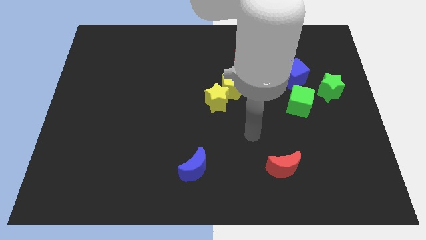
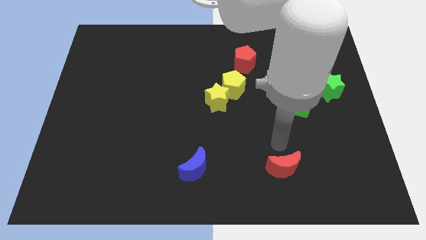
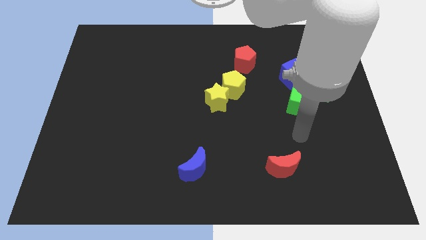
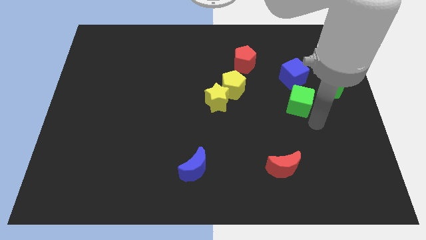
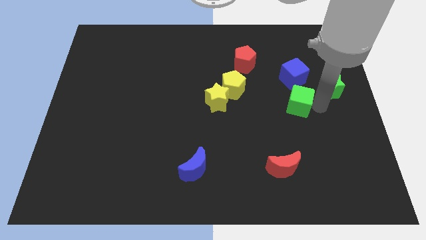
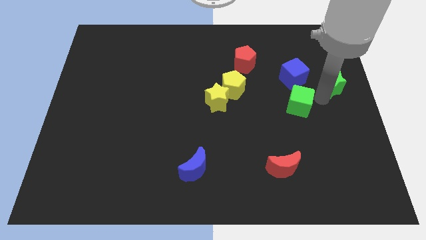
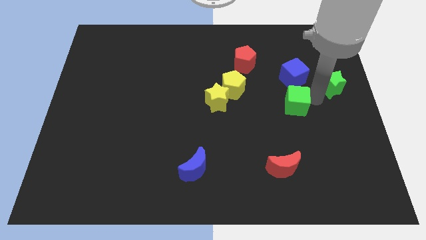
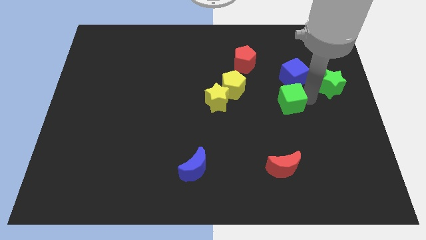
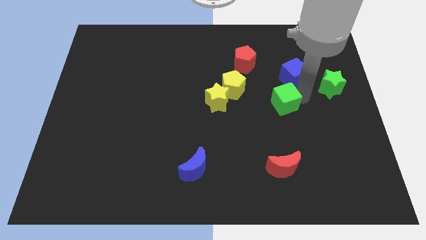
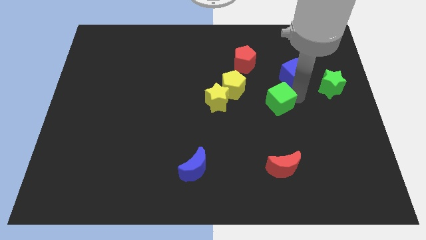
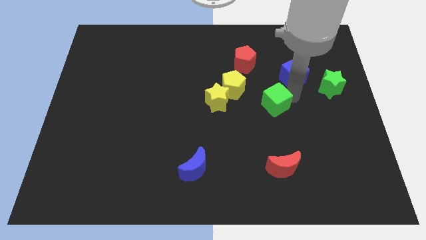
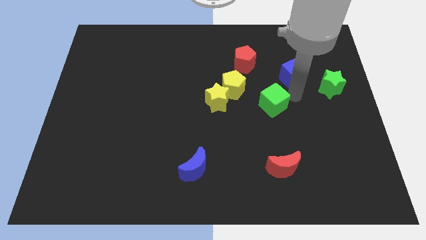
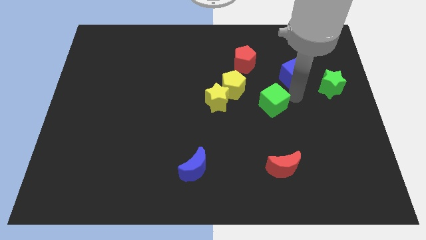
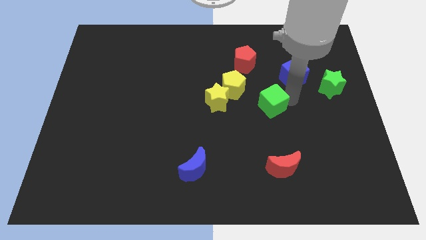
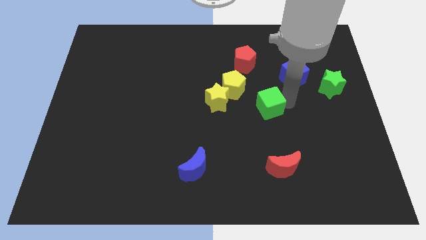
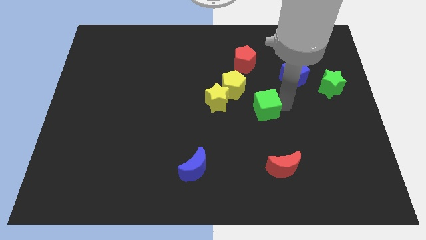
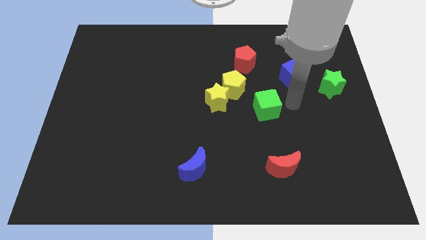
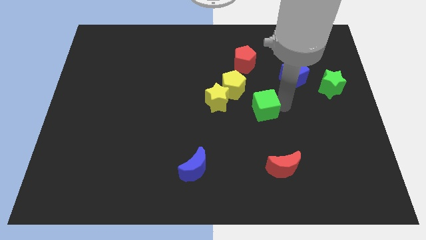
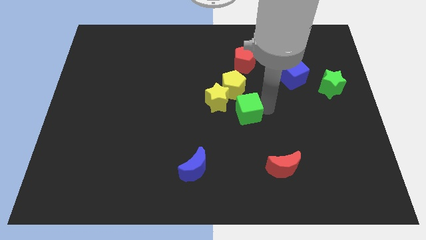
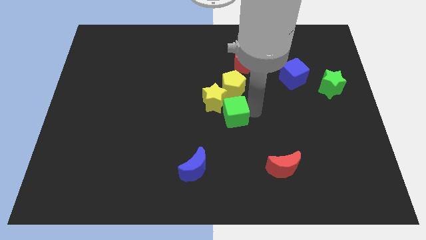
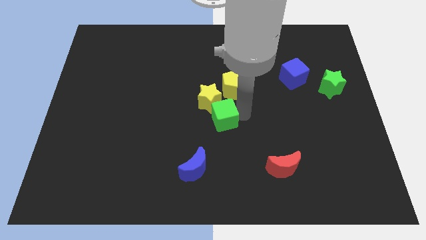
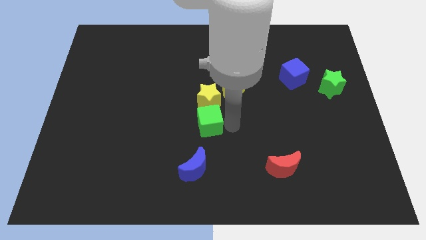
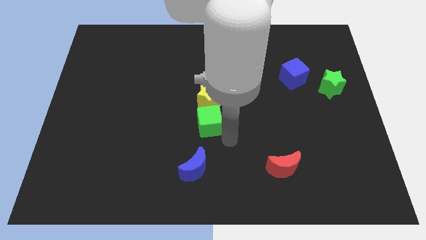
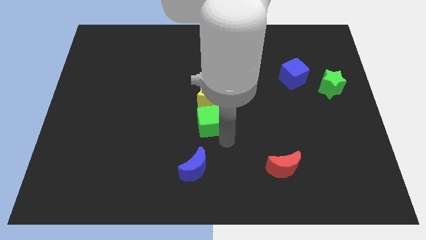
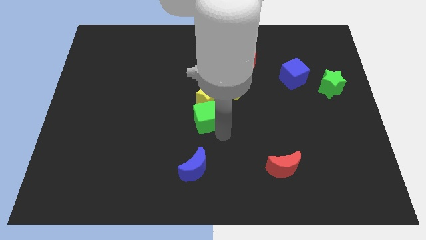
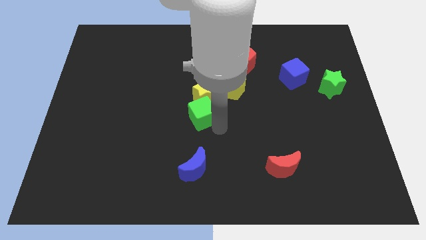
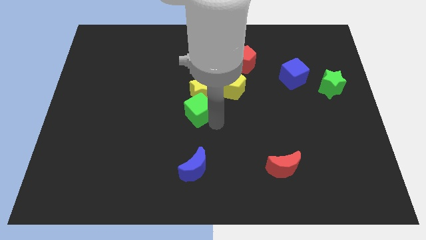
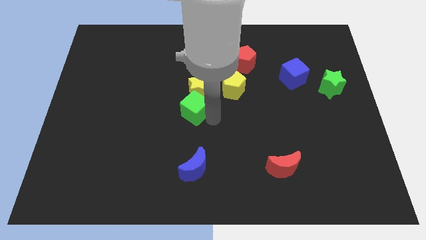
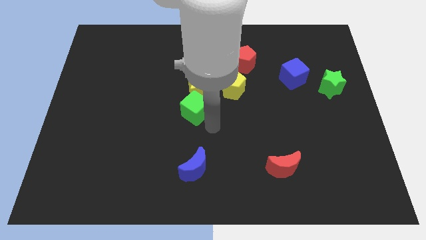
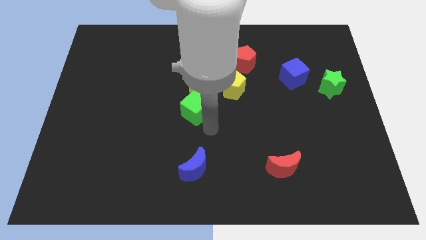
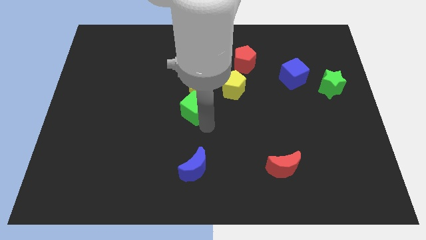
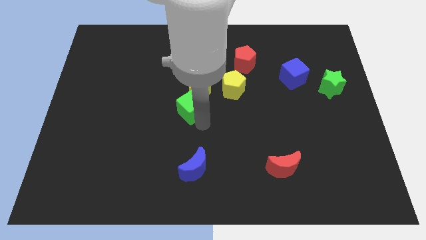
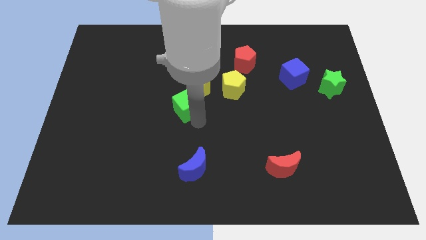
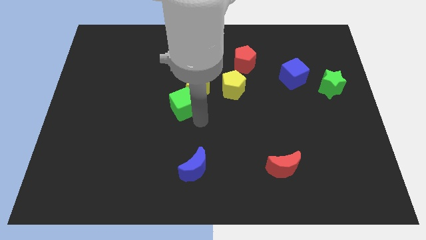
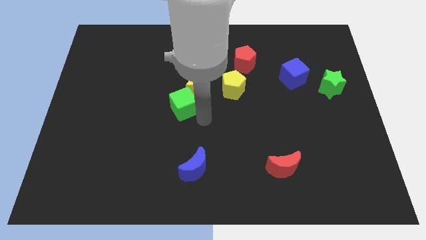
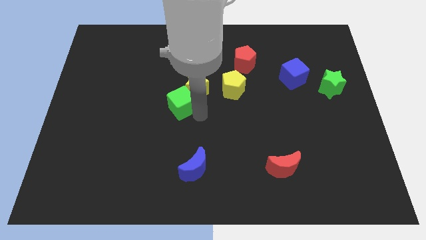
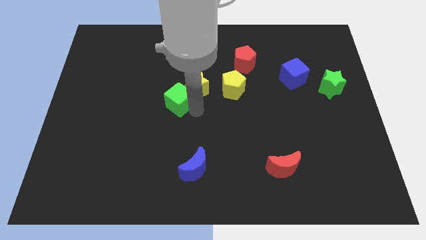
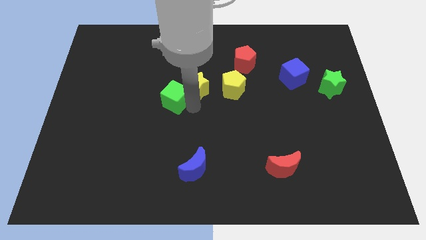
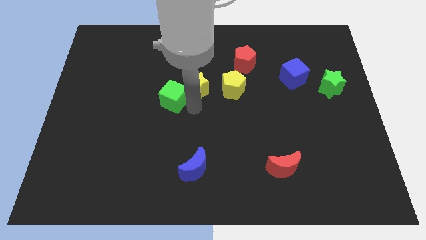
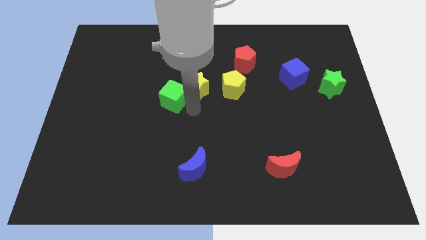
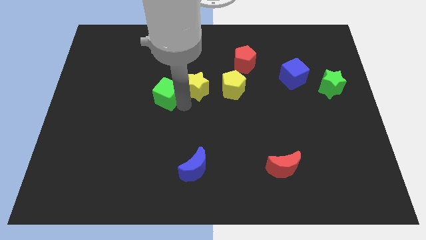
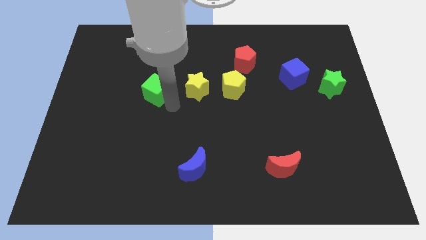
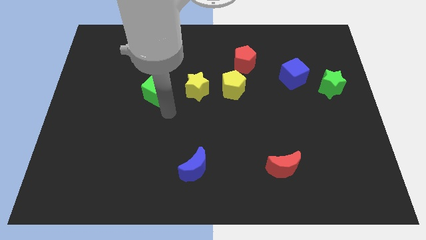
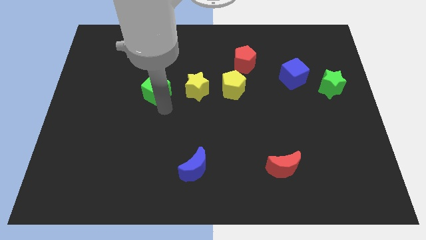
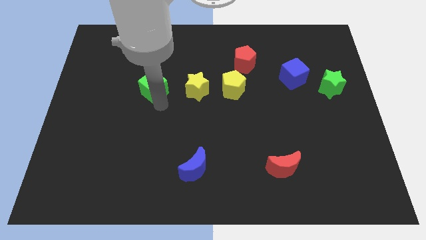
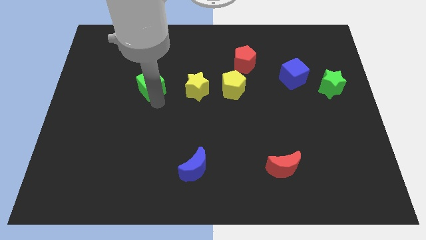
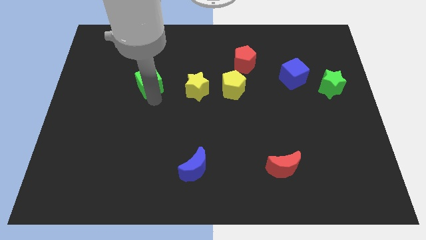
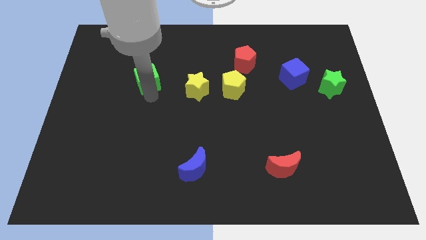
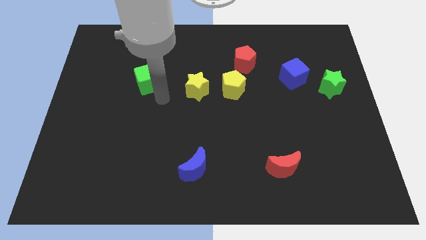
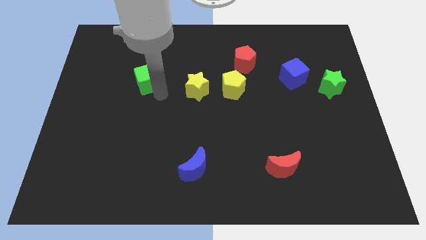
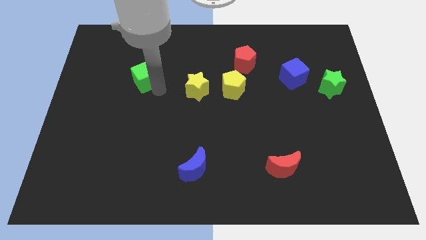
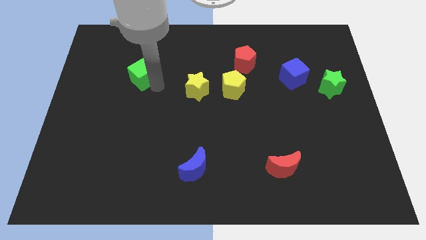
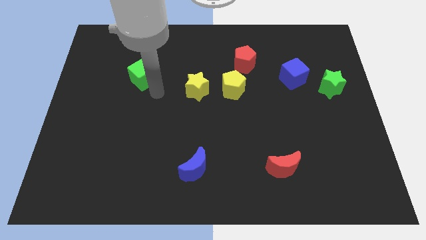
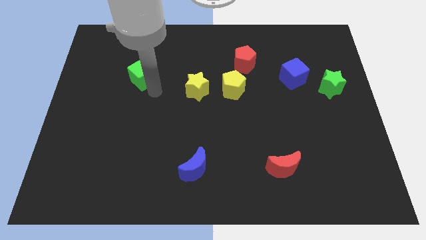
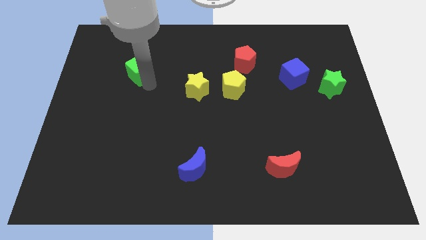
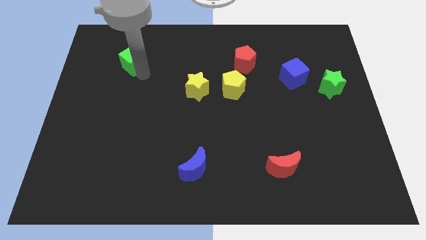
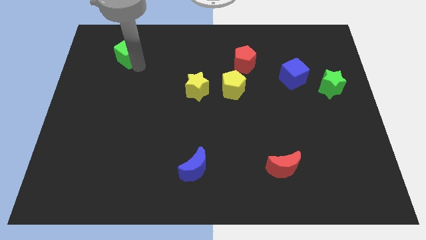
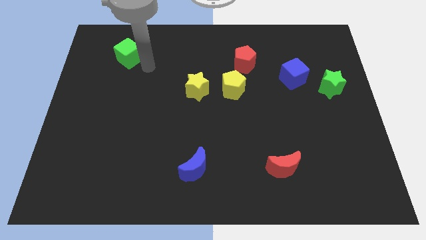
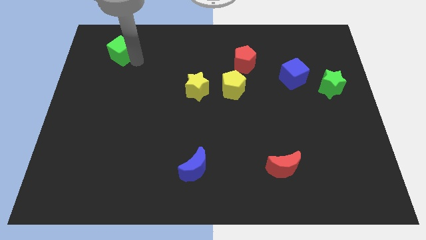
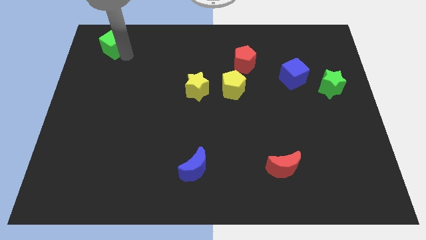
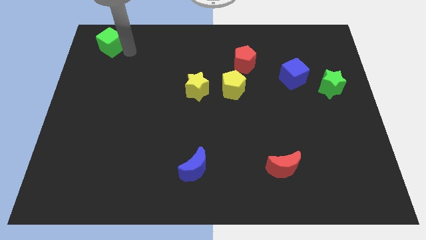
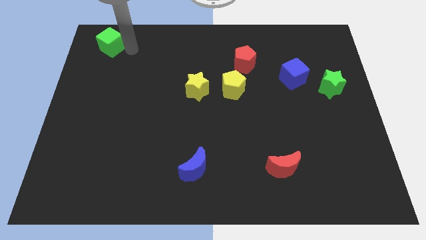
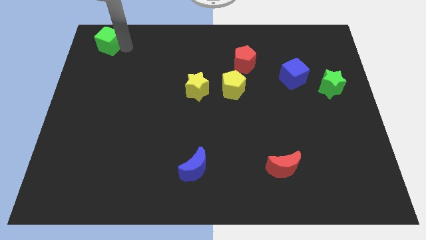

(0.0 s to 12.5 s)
move the green cube to the top left corner

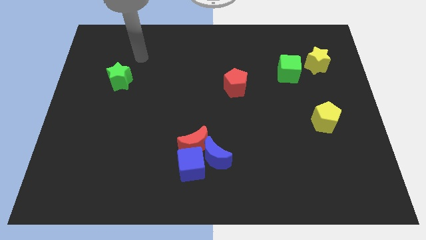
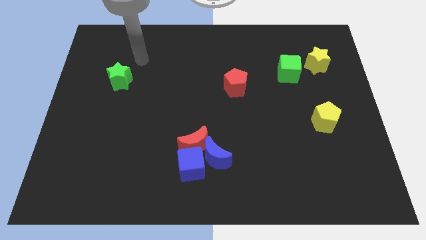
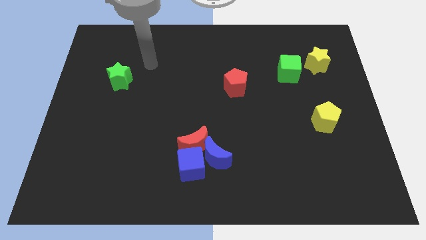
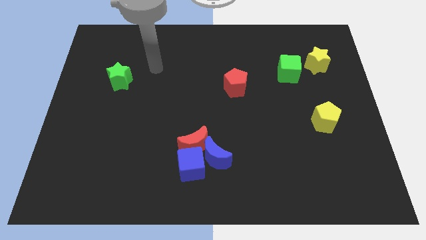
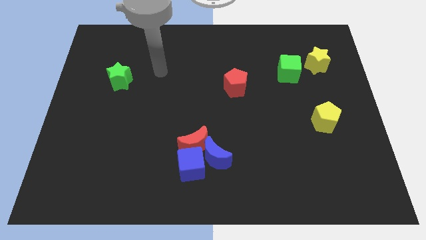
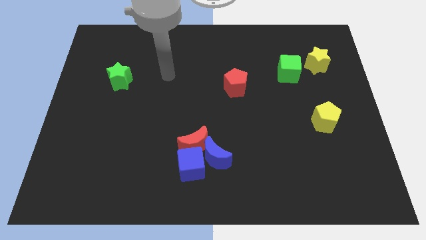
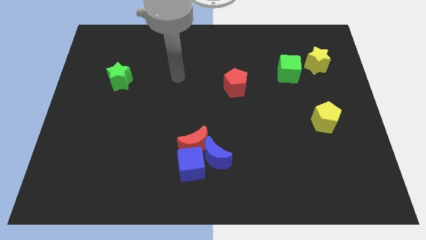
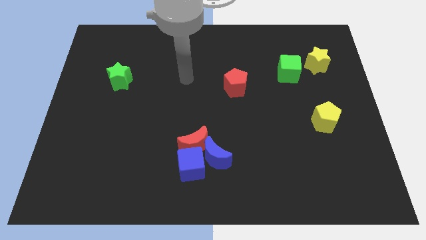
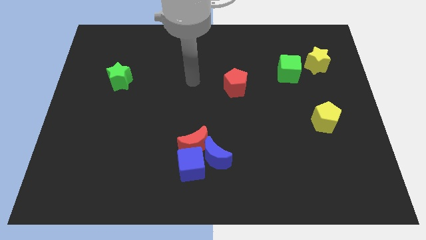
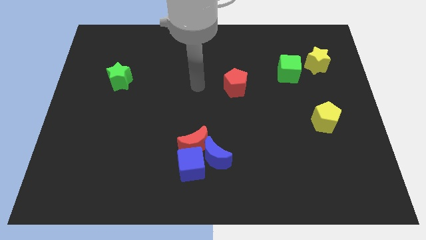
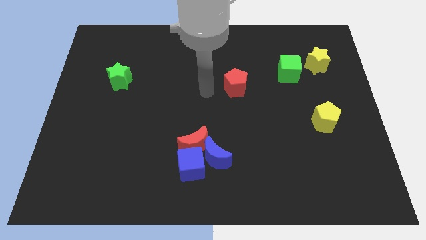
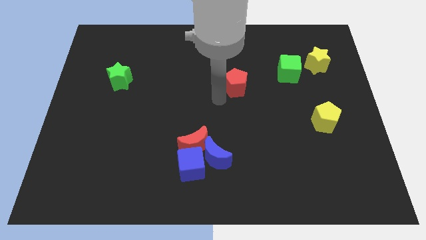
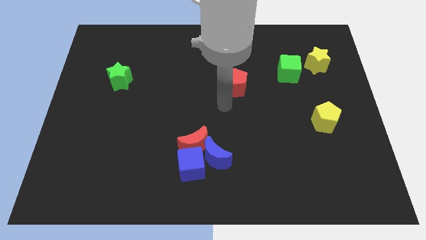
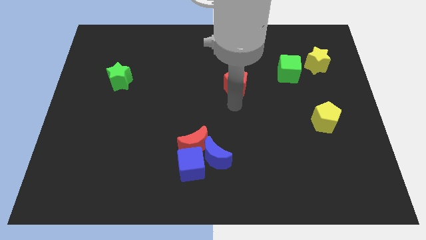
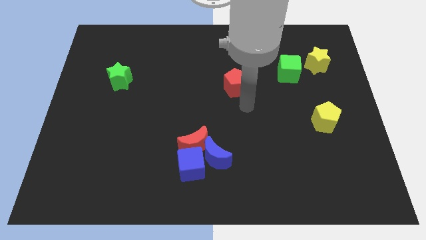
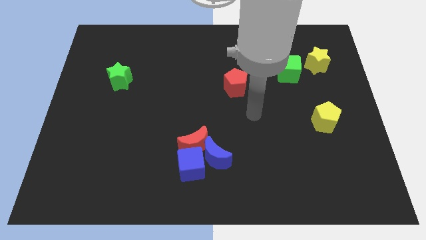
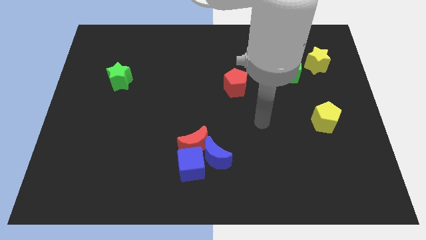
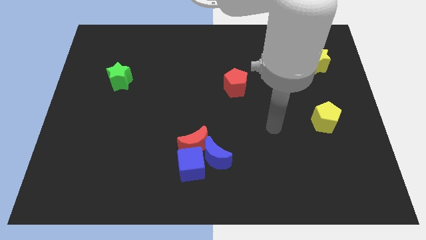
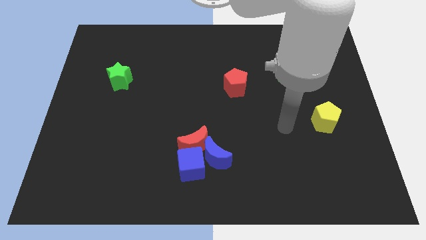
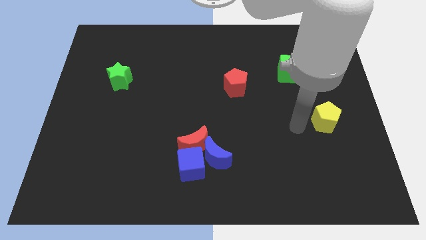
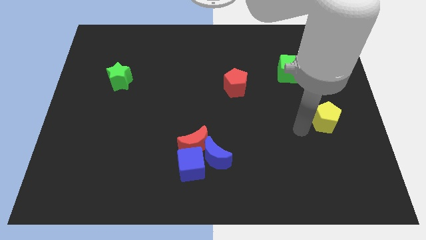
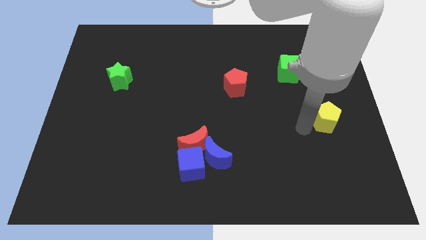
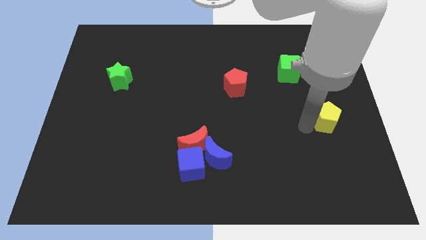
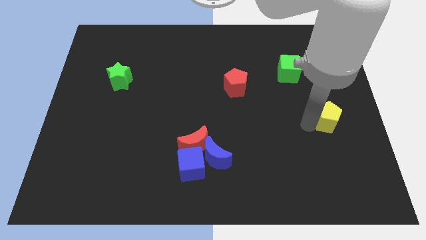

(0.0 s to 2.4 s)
move the yellow pentagon to the right side of the board
